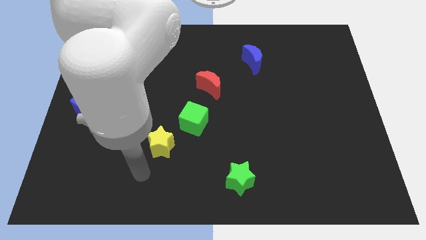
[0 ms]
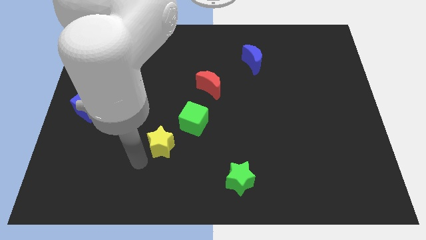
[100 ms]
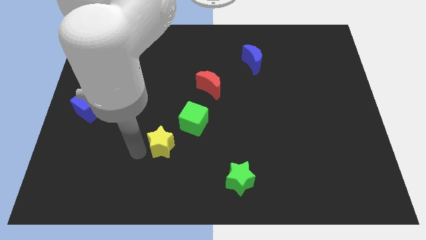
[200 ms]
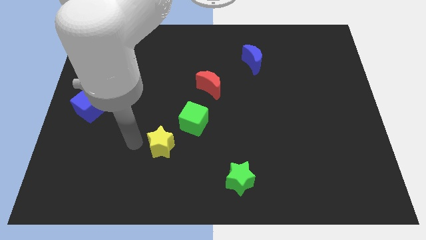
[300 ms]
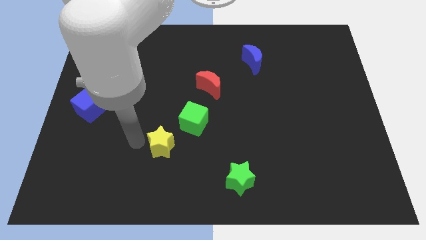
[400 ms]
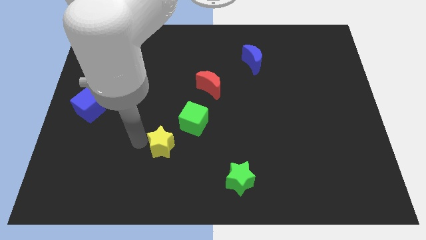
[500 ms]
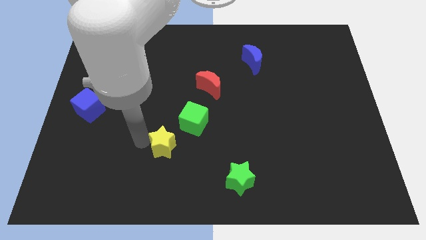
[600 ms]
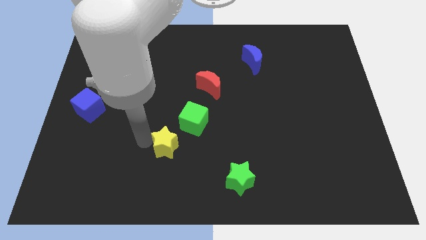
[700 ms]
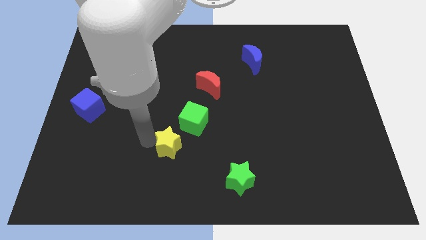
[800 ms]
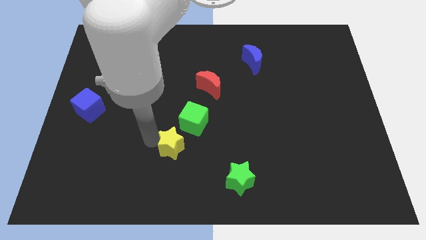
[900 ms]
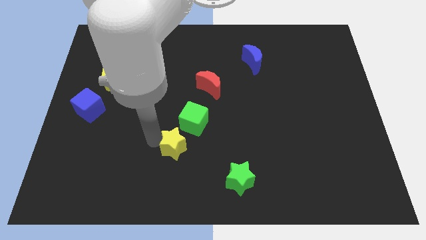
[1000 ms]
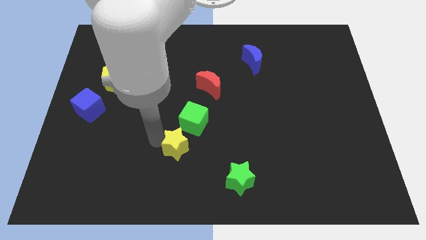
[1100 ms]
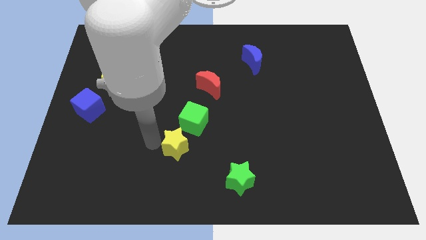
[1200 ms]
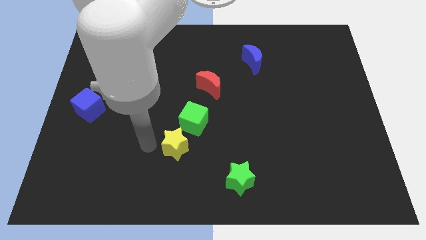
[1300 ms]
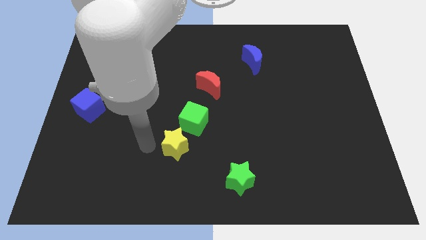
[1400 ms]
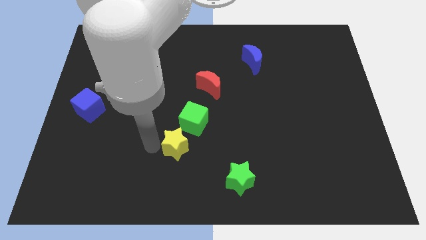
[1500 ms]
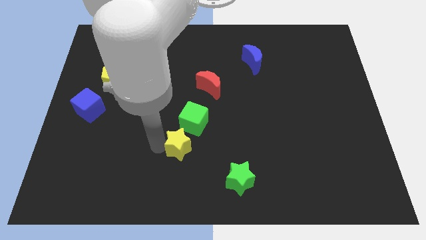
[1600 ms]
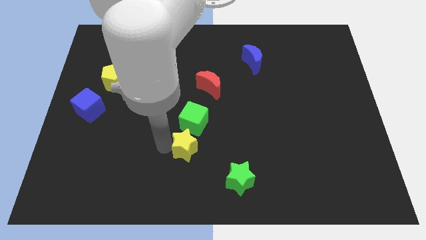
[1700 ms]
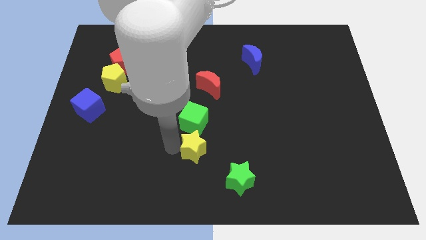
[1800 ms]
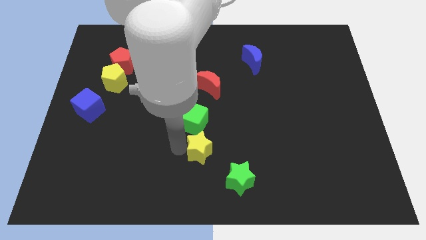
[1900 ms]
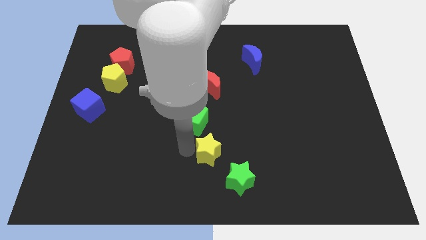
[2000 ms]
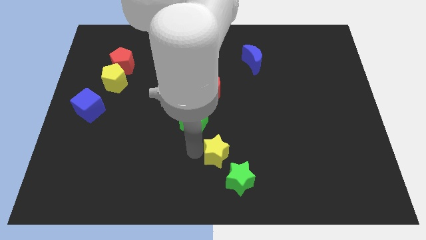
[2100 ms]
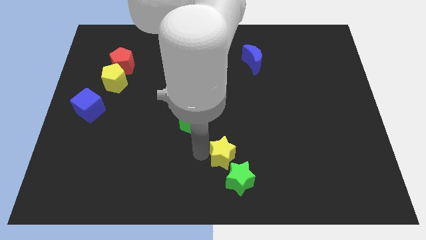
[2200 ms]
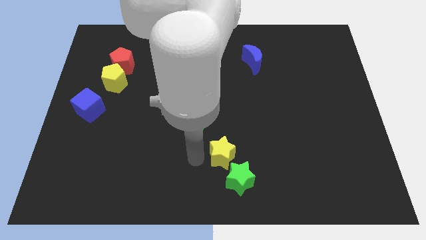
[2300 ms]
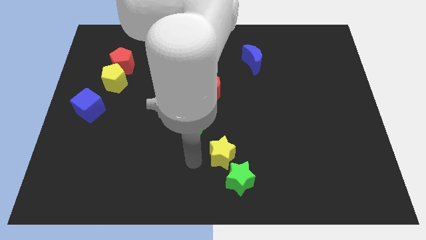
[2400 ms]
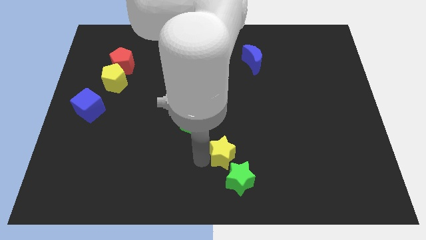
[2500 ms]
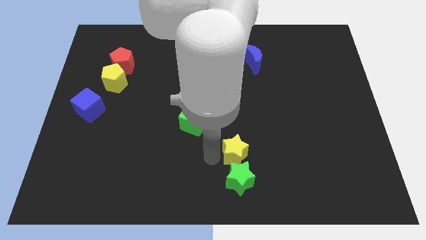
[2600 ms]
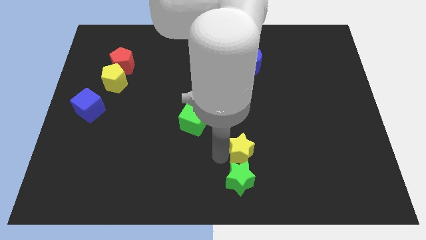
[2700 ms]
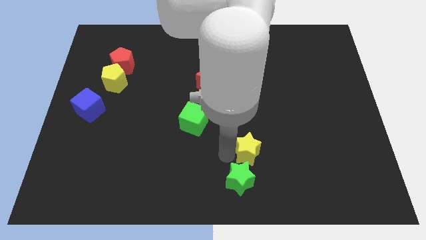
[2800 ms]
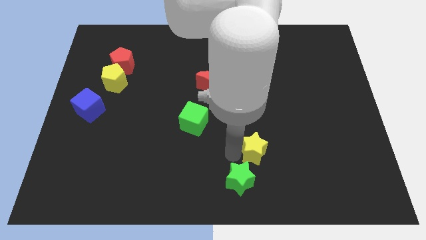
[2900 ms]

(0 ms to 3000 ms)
slide the yellow star to the right

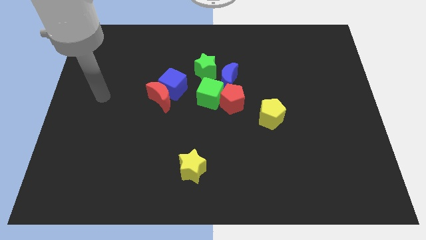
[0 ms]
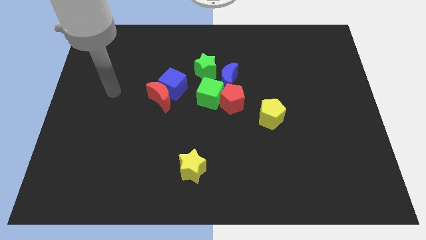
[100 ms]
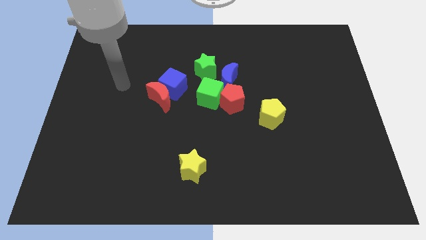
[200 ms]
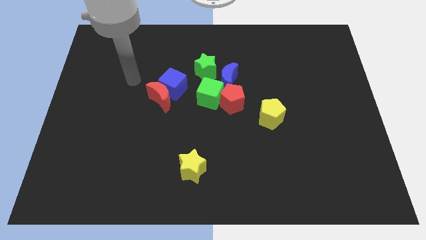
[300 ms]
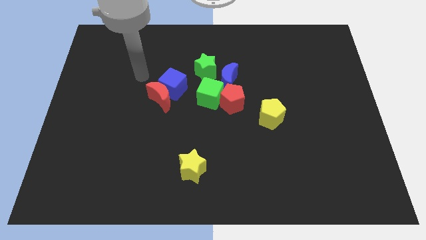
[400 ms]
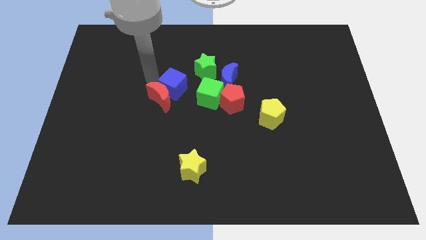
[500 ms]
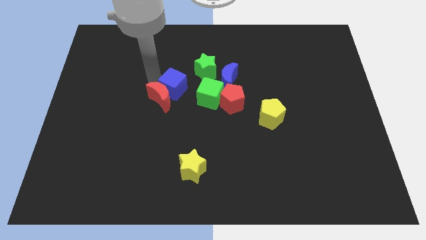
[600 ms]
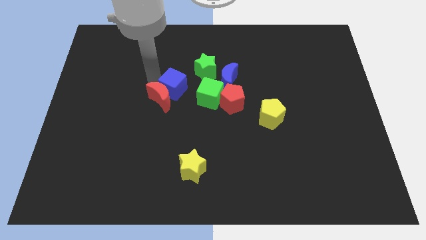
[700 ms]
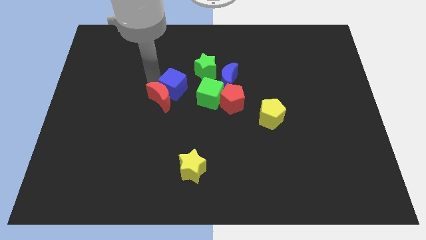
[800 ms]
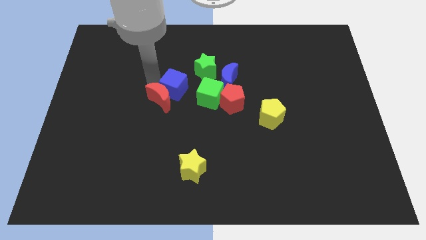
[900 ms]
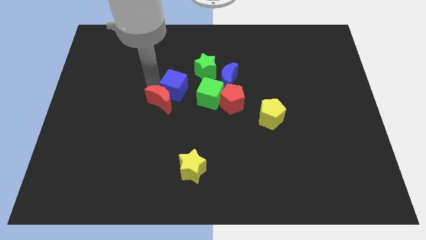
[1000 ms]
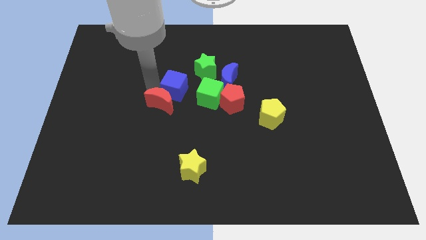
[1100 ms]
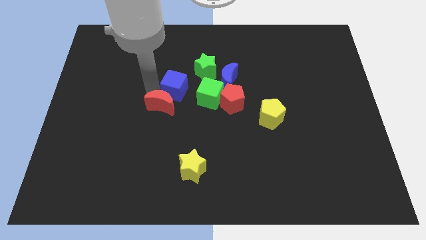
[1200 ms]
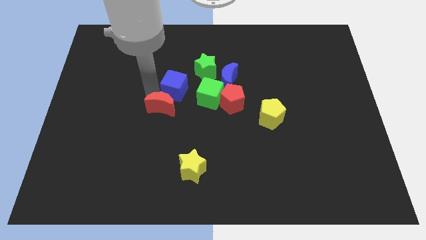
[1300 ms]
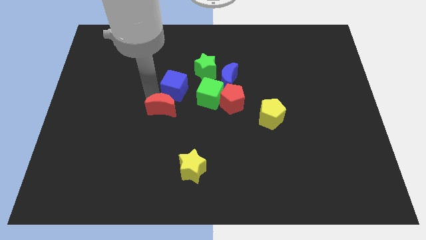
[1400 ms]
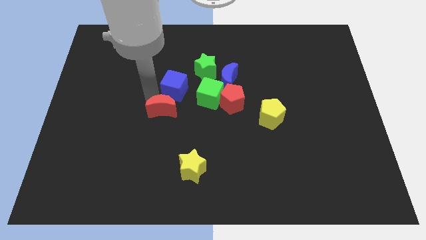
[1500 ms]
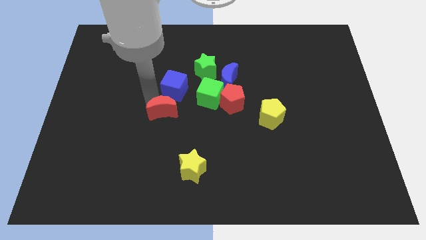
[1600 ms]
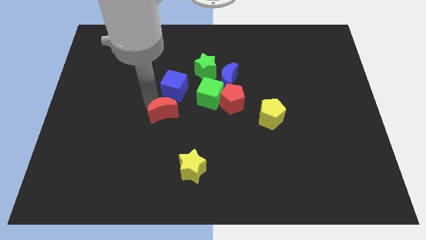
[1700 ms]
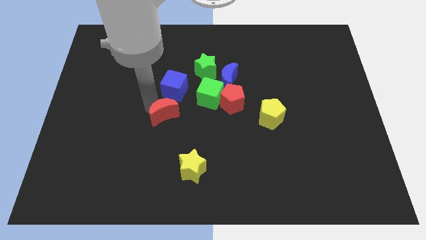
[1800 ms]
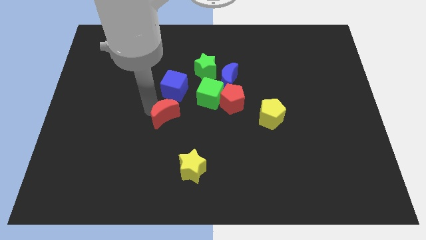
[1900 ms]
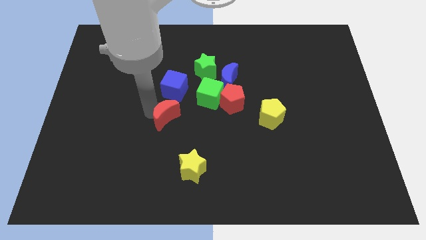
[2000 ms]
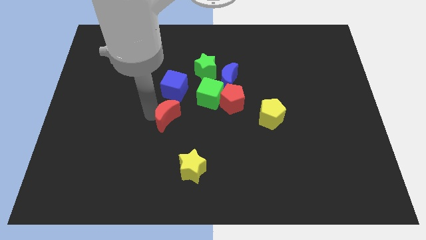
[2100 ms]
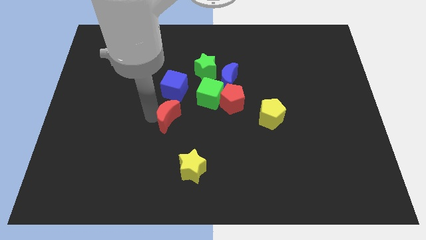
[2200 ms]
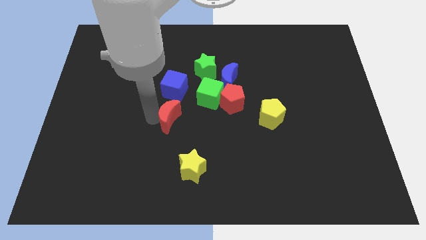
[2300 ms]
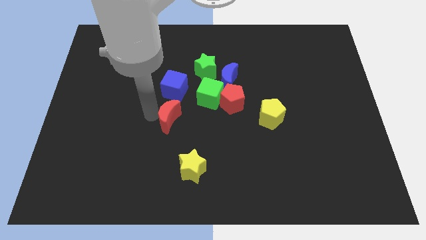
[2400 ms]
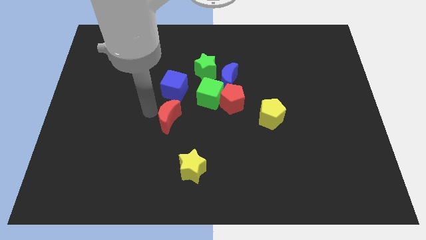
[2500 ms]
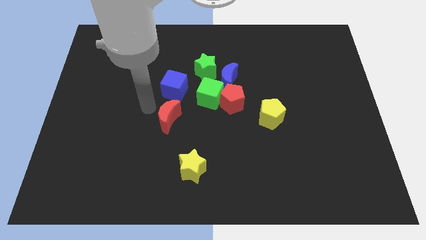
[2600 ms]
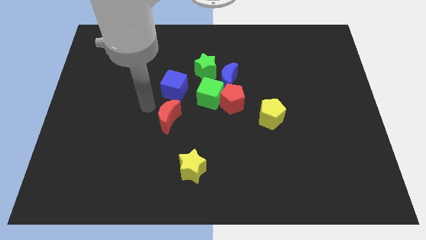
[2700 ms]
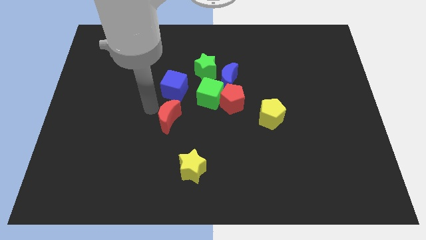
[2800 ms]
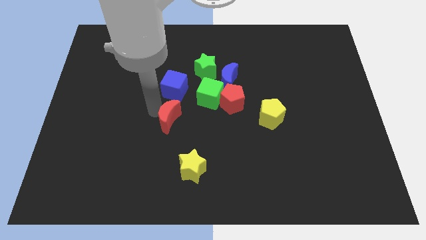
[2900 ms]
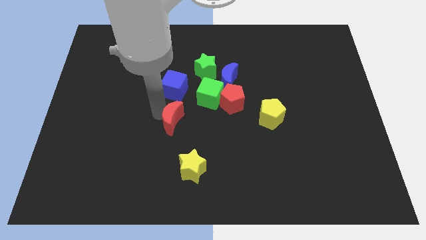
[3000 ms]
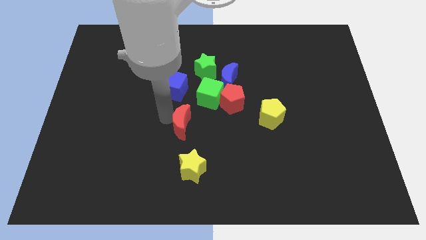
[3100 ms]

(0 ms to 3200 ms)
push the red moon down and then to the right slightly

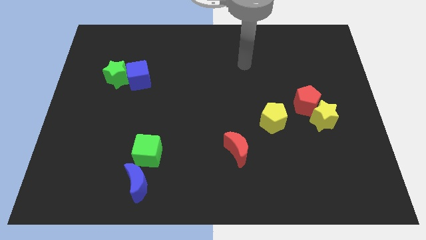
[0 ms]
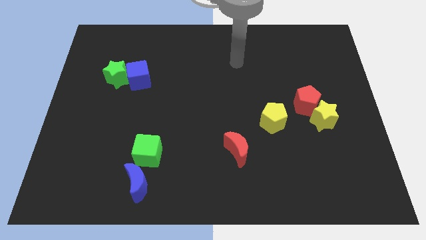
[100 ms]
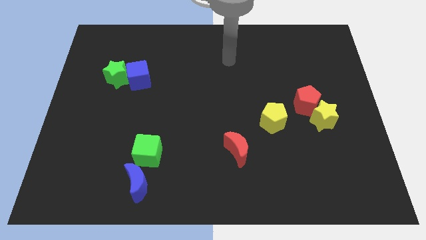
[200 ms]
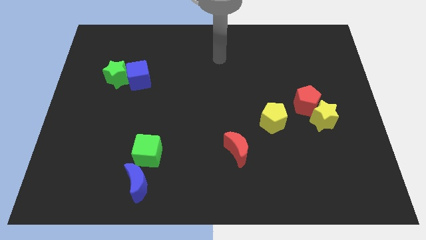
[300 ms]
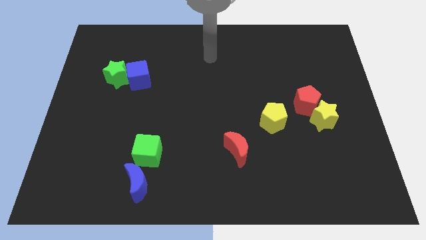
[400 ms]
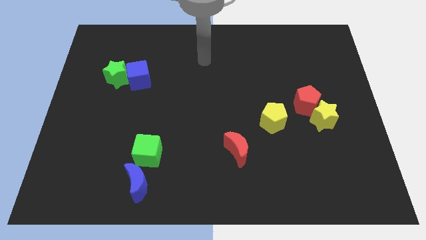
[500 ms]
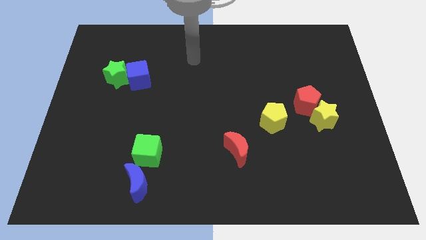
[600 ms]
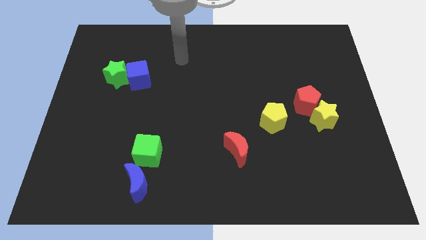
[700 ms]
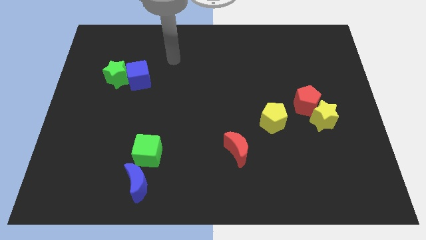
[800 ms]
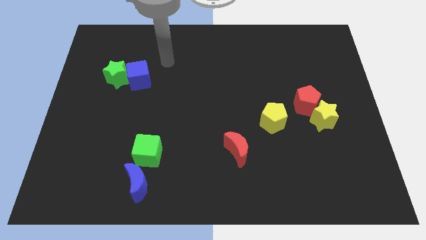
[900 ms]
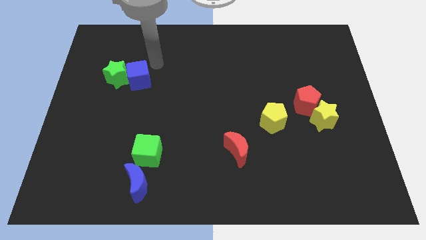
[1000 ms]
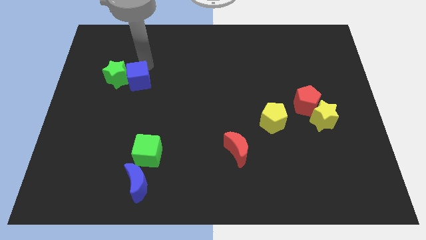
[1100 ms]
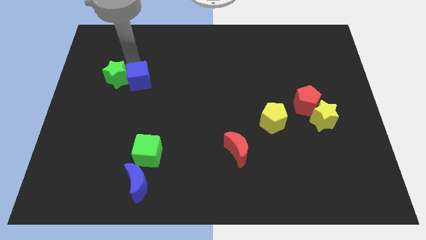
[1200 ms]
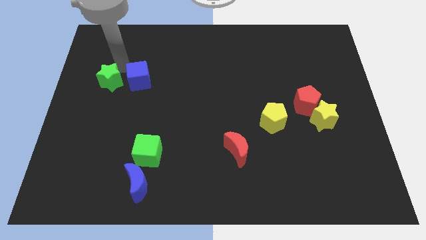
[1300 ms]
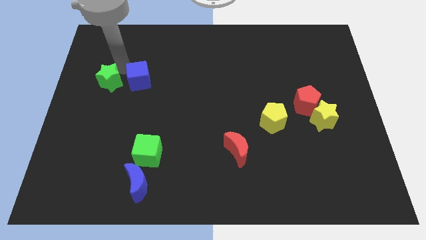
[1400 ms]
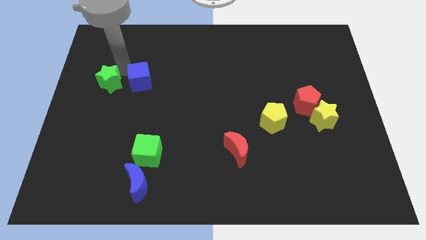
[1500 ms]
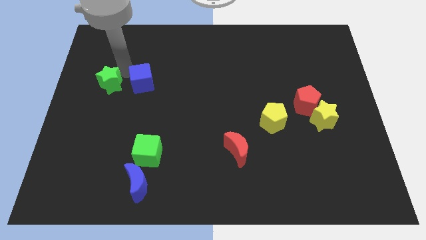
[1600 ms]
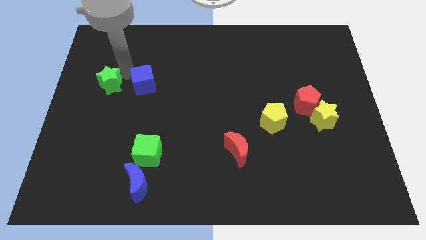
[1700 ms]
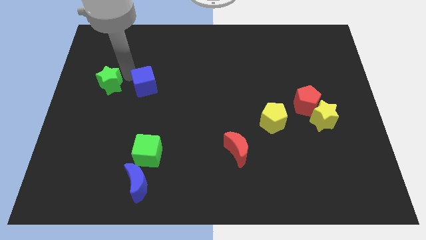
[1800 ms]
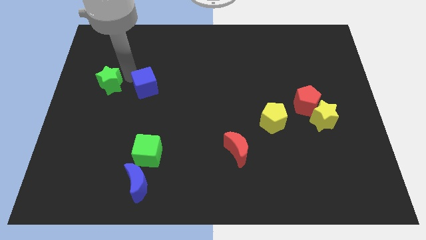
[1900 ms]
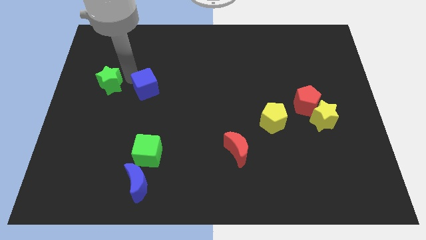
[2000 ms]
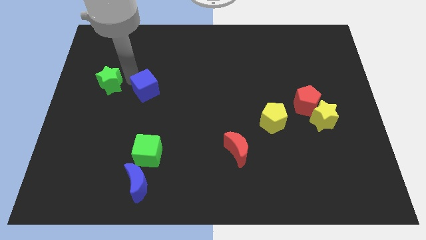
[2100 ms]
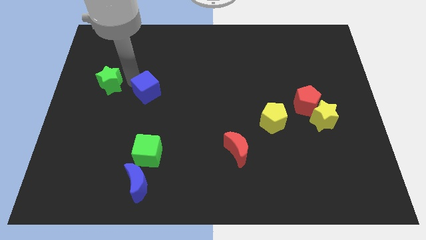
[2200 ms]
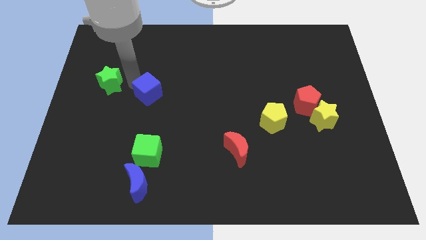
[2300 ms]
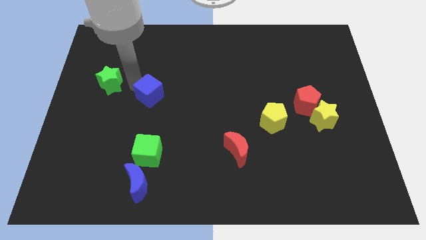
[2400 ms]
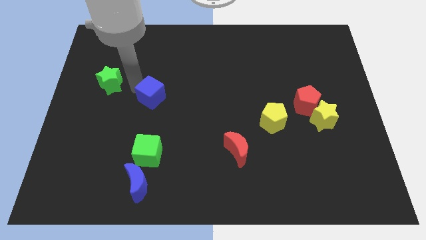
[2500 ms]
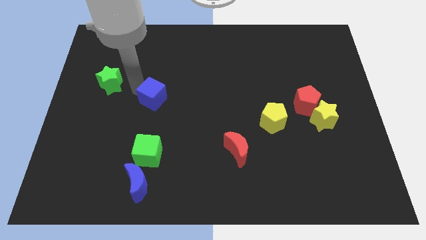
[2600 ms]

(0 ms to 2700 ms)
slightly push the blue cube diagonally downwards and right
